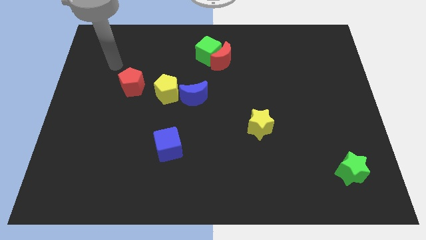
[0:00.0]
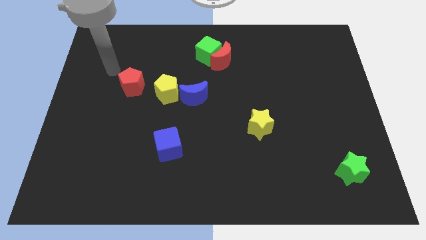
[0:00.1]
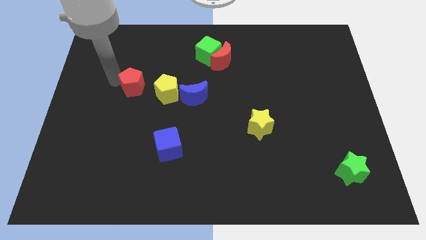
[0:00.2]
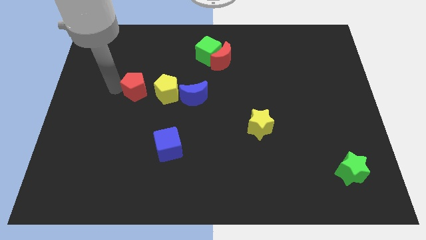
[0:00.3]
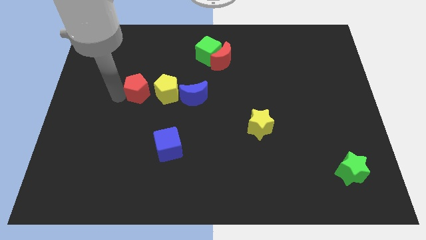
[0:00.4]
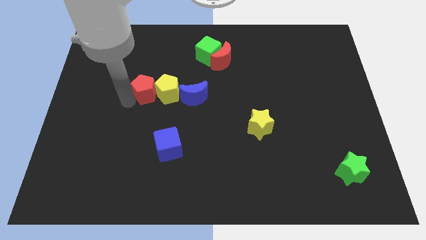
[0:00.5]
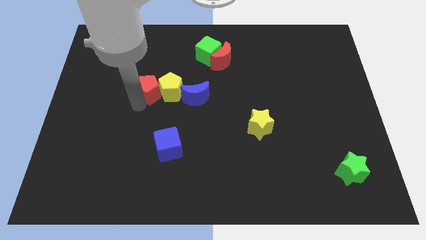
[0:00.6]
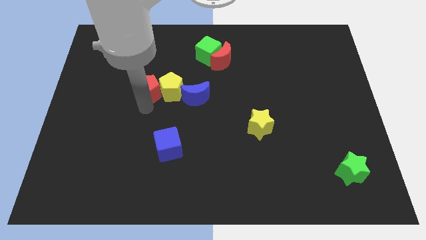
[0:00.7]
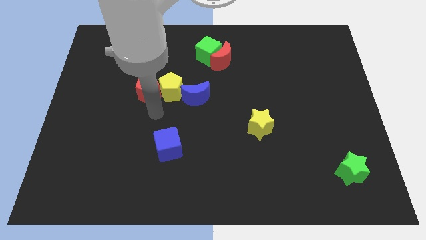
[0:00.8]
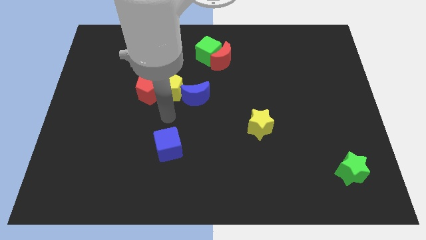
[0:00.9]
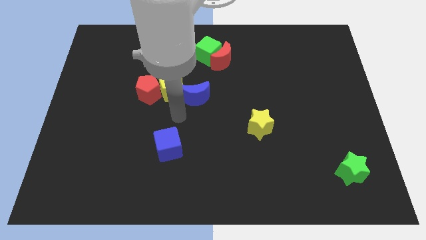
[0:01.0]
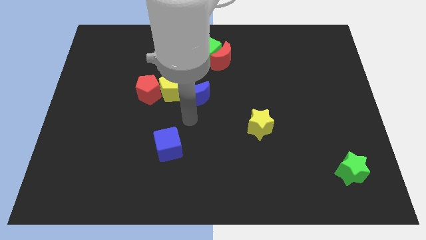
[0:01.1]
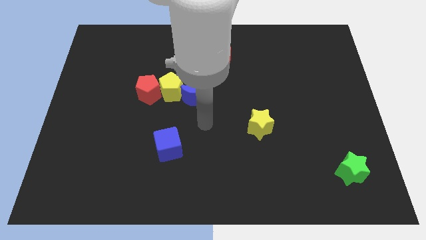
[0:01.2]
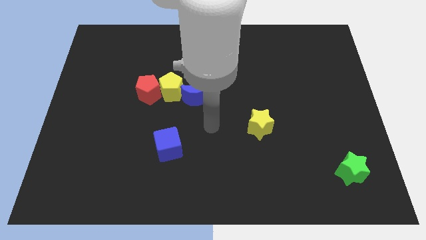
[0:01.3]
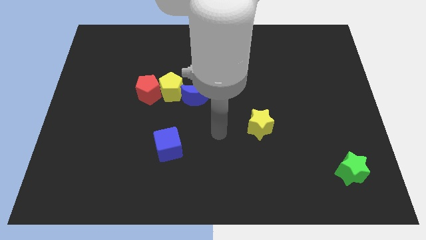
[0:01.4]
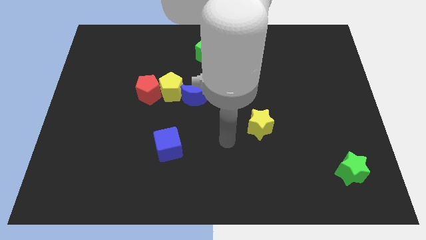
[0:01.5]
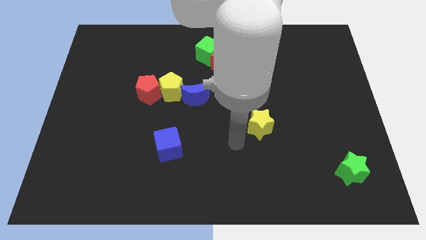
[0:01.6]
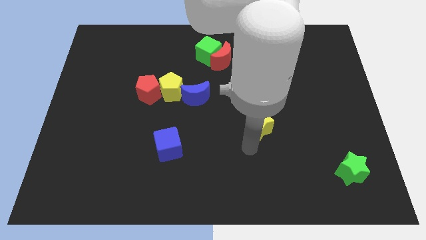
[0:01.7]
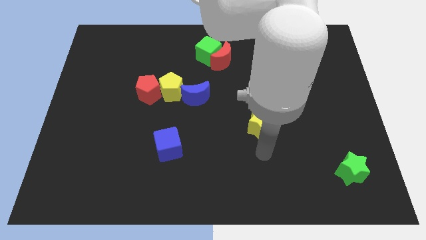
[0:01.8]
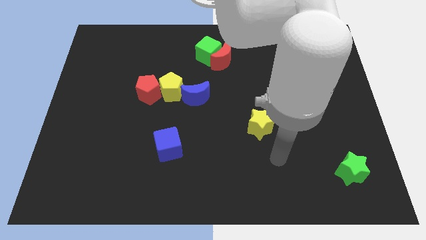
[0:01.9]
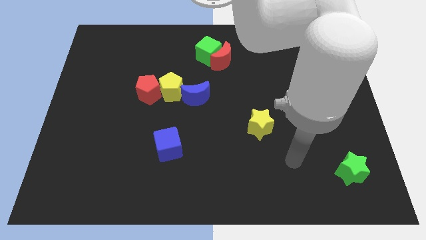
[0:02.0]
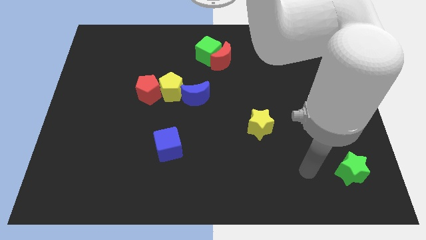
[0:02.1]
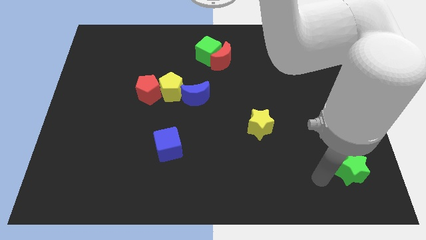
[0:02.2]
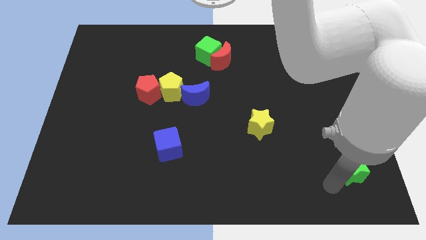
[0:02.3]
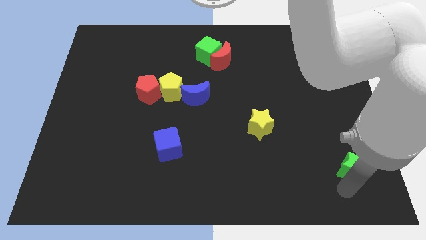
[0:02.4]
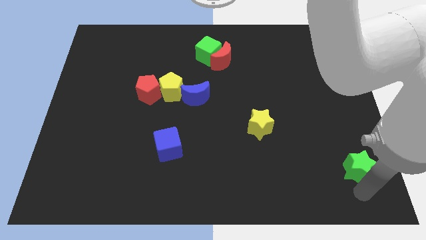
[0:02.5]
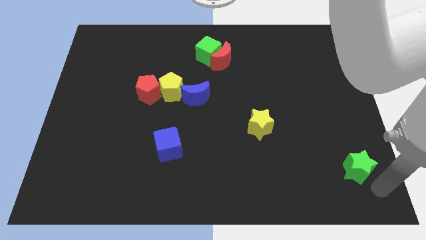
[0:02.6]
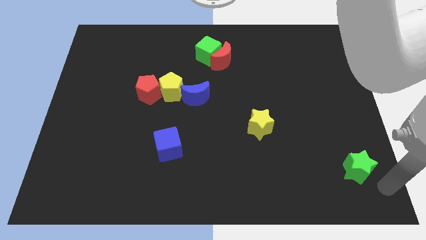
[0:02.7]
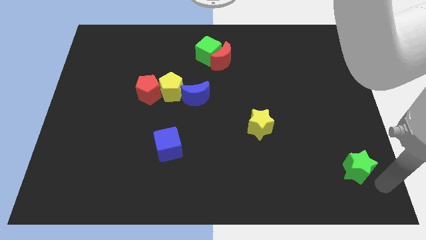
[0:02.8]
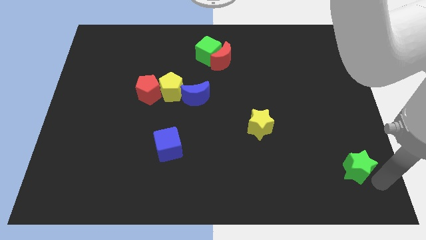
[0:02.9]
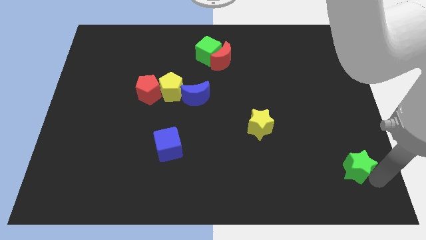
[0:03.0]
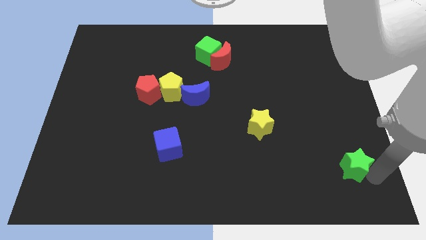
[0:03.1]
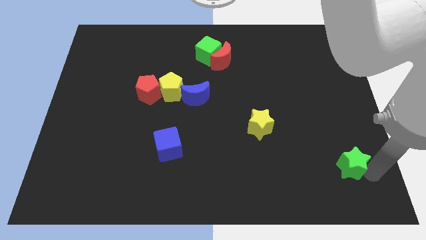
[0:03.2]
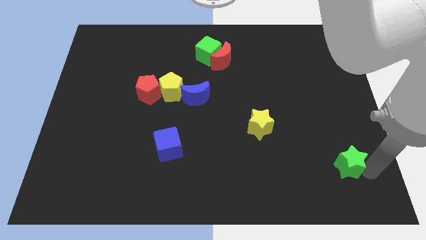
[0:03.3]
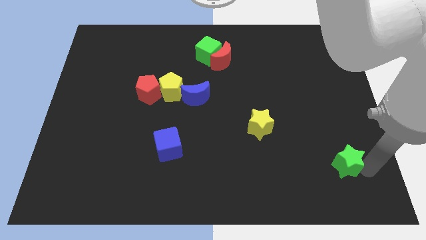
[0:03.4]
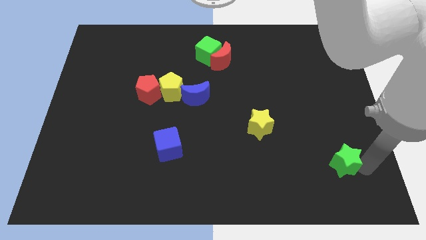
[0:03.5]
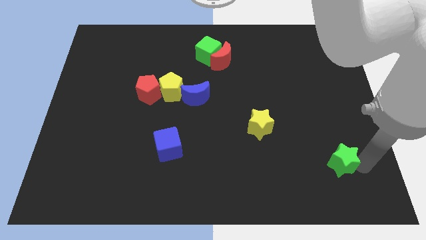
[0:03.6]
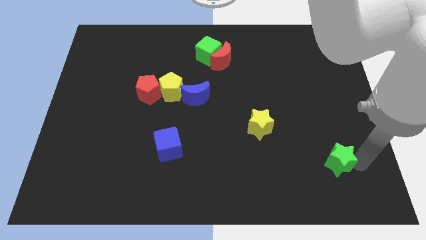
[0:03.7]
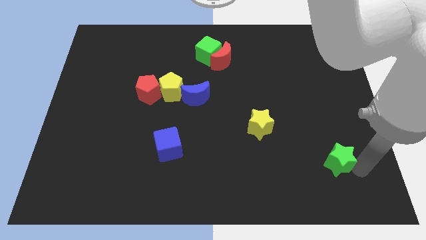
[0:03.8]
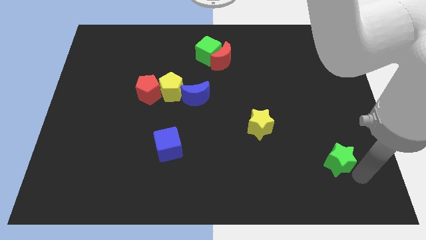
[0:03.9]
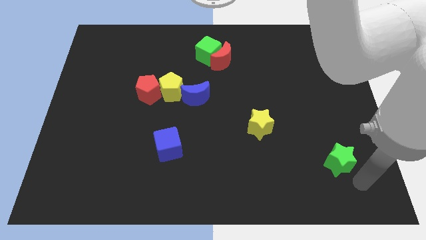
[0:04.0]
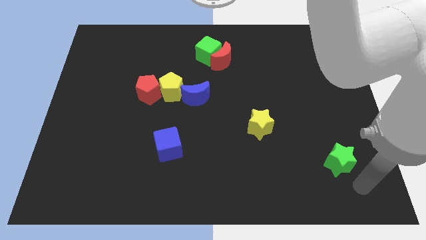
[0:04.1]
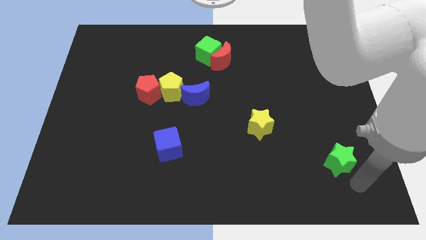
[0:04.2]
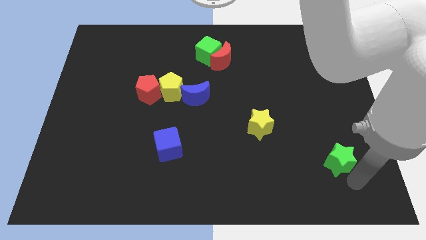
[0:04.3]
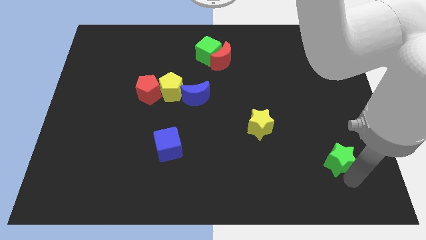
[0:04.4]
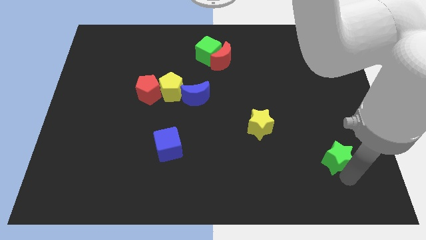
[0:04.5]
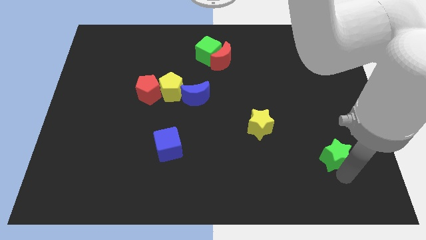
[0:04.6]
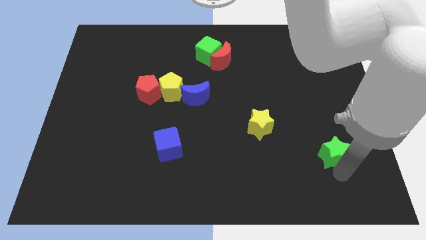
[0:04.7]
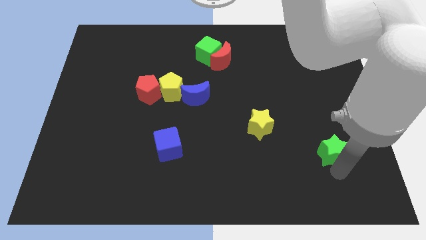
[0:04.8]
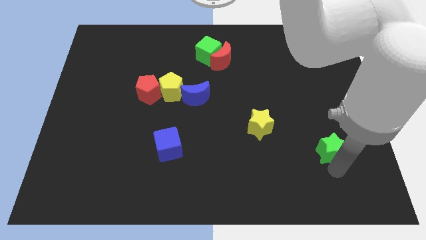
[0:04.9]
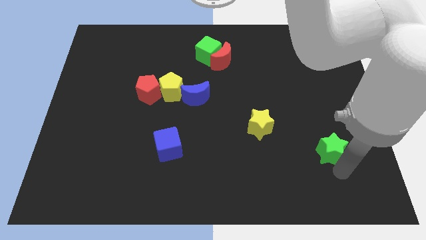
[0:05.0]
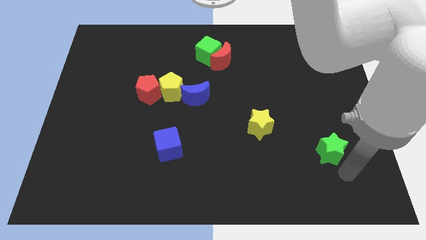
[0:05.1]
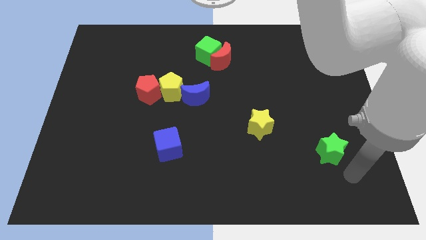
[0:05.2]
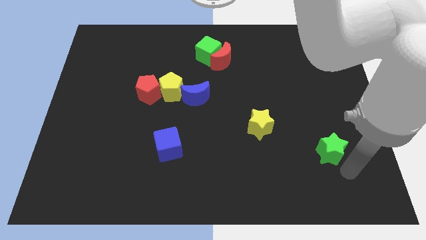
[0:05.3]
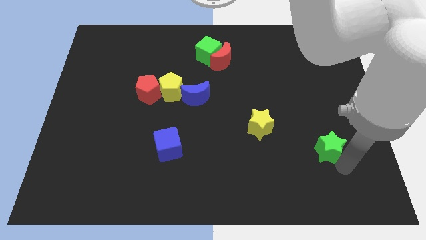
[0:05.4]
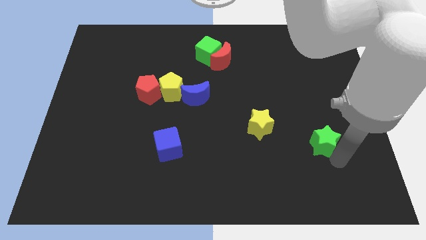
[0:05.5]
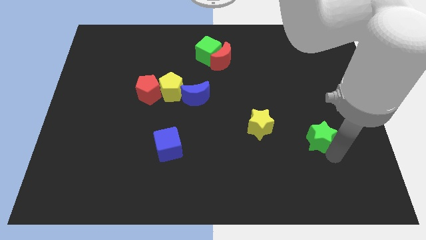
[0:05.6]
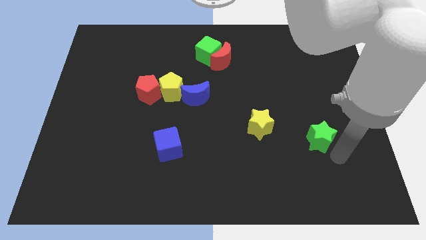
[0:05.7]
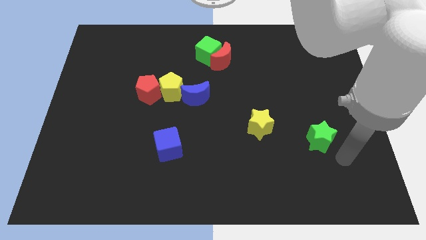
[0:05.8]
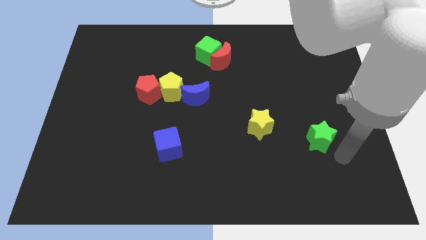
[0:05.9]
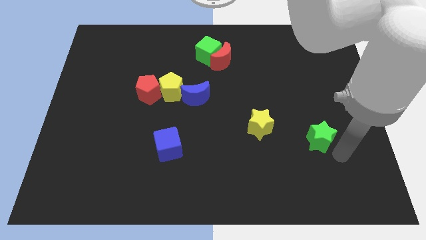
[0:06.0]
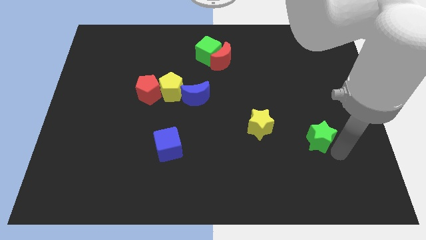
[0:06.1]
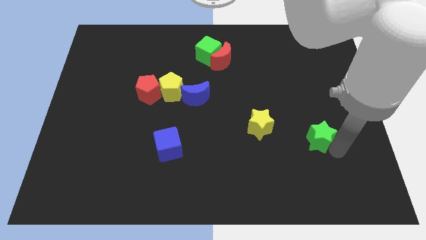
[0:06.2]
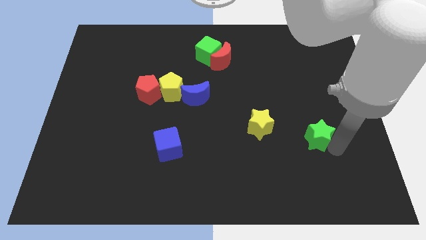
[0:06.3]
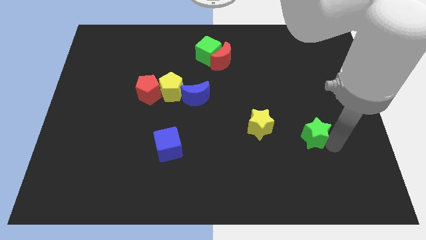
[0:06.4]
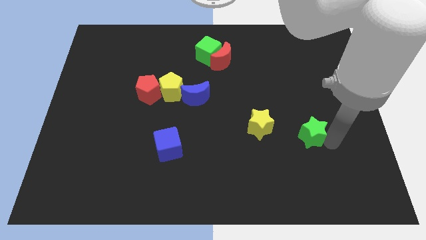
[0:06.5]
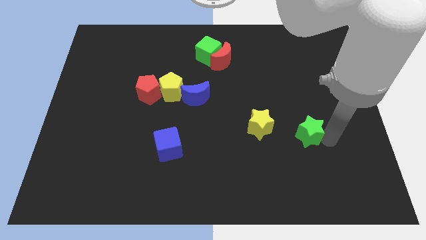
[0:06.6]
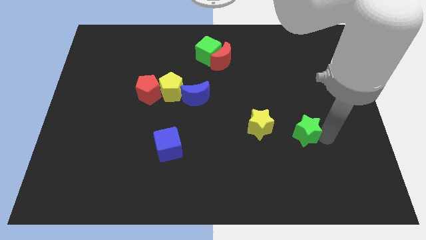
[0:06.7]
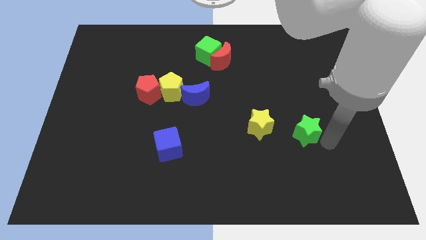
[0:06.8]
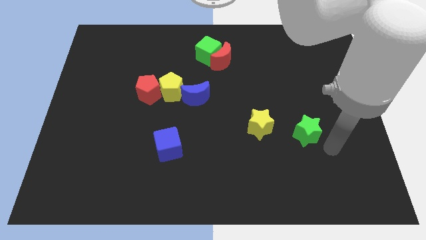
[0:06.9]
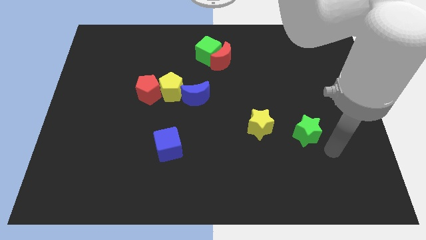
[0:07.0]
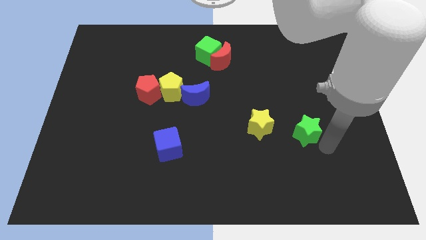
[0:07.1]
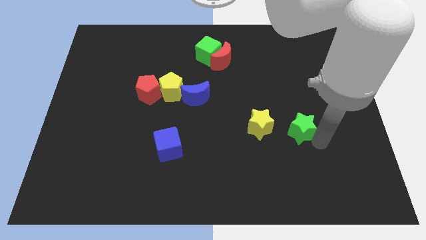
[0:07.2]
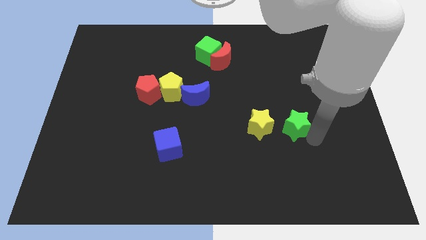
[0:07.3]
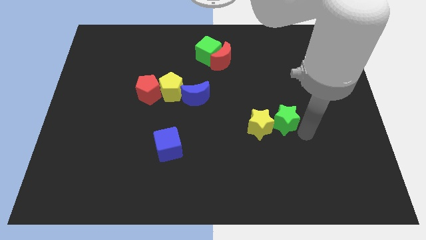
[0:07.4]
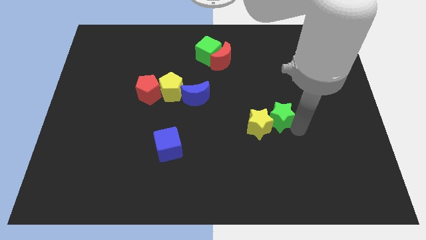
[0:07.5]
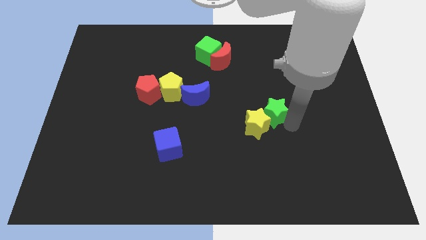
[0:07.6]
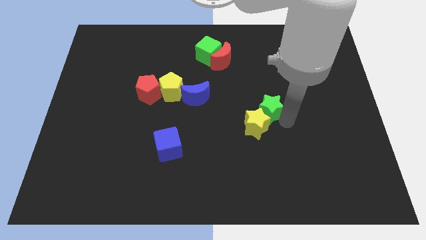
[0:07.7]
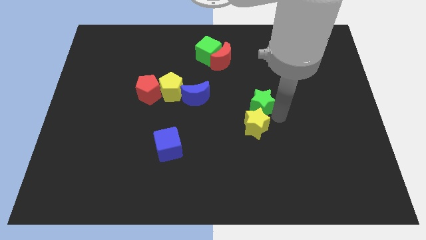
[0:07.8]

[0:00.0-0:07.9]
push the green star to the center of the board
